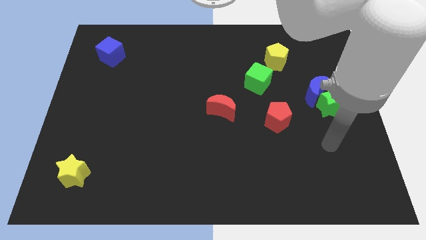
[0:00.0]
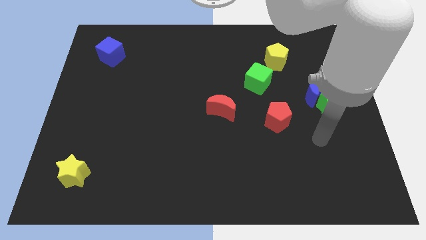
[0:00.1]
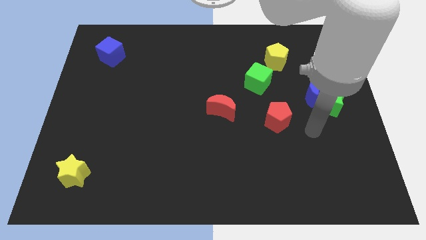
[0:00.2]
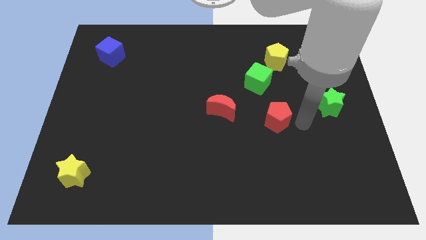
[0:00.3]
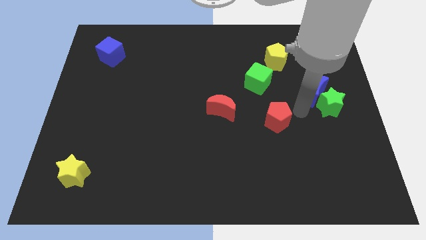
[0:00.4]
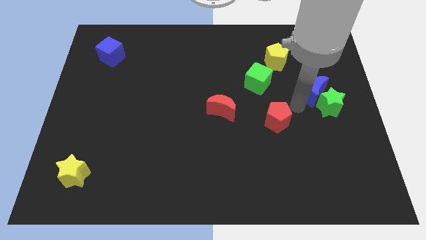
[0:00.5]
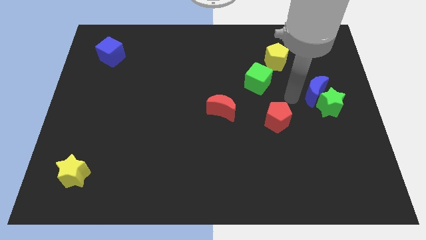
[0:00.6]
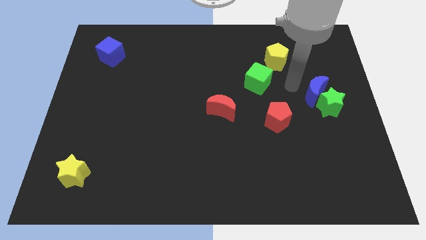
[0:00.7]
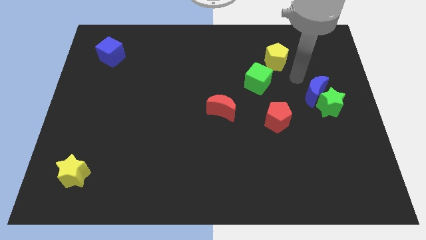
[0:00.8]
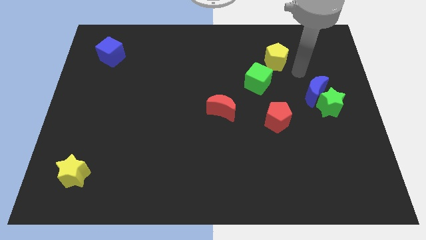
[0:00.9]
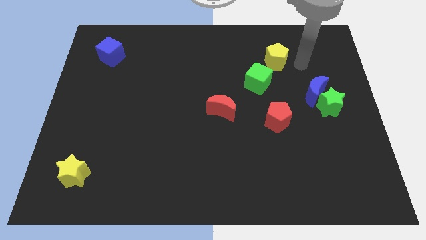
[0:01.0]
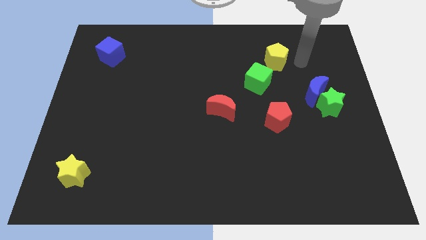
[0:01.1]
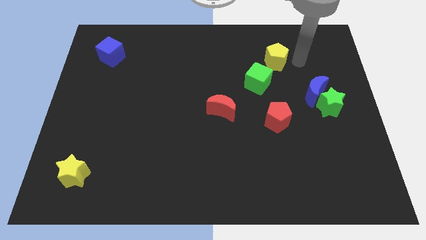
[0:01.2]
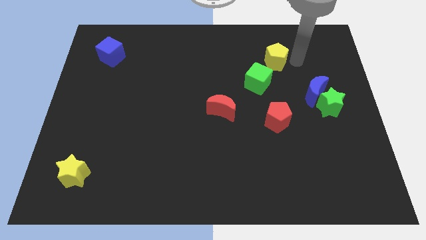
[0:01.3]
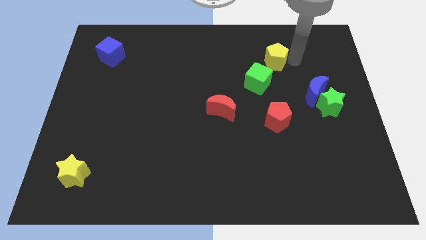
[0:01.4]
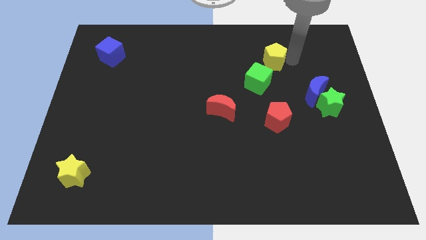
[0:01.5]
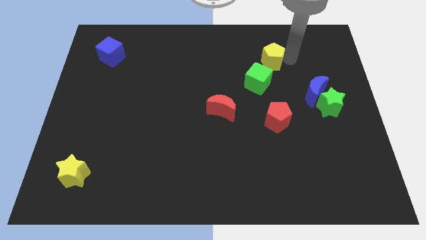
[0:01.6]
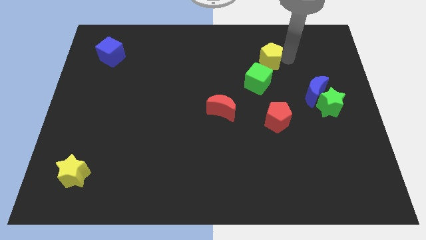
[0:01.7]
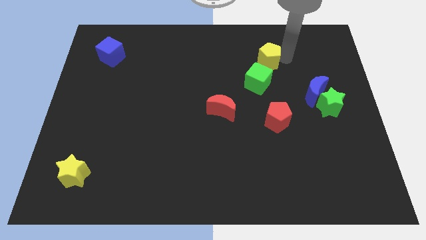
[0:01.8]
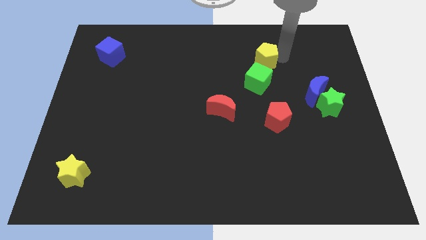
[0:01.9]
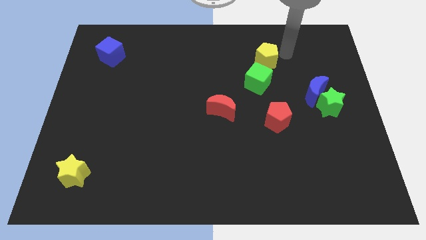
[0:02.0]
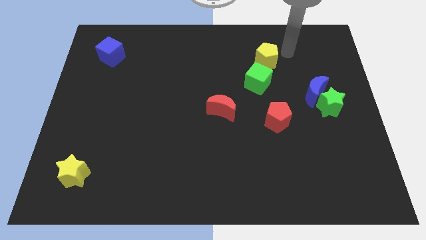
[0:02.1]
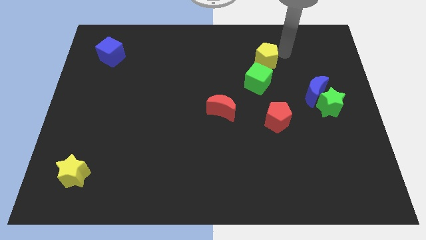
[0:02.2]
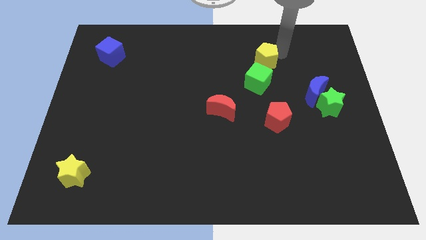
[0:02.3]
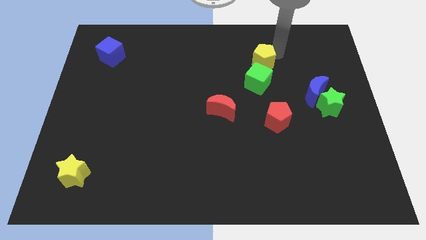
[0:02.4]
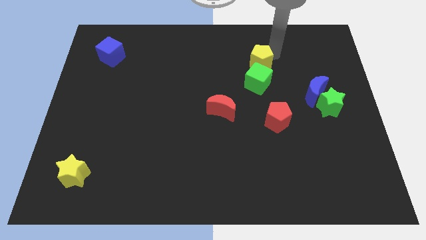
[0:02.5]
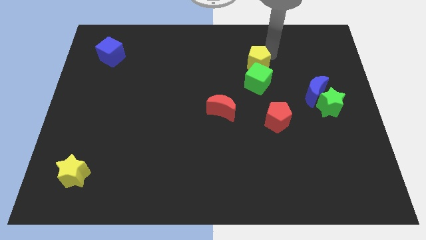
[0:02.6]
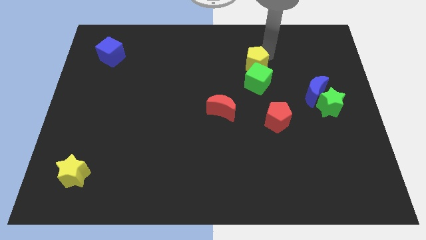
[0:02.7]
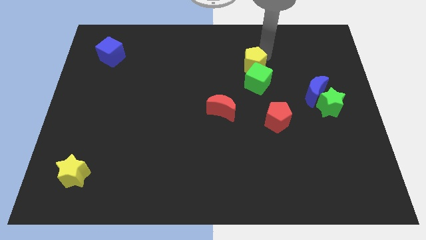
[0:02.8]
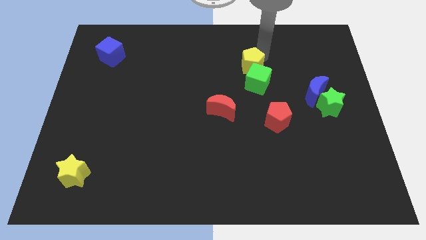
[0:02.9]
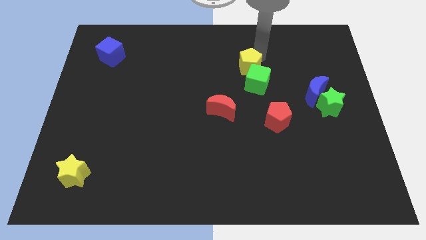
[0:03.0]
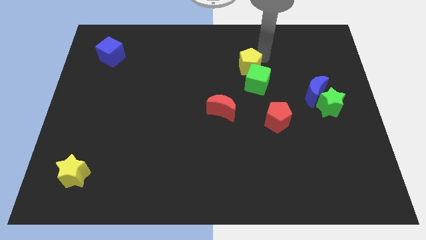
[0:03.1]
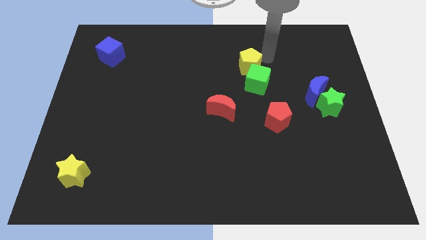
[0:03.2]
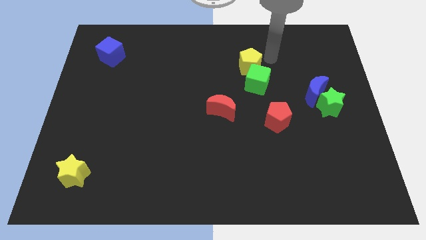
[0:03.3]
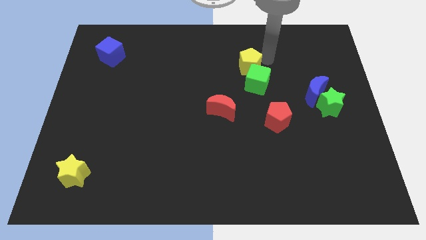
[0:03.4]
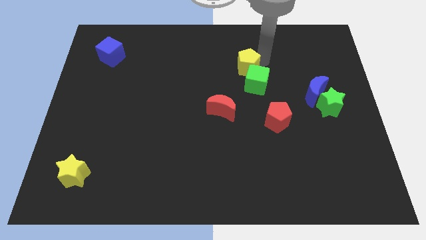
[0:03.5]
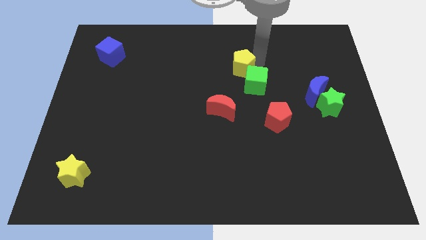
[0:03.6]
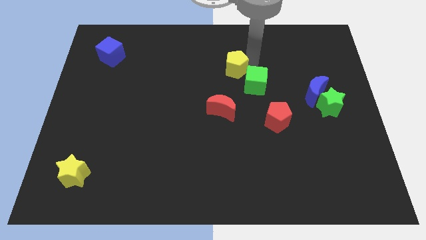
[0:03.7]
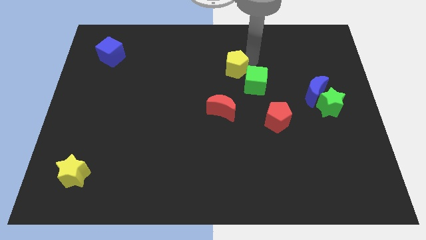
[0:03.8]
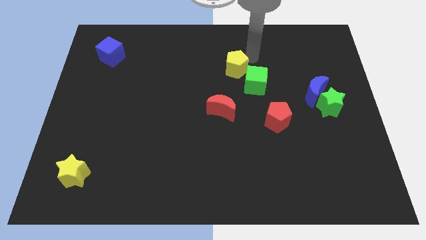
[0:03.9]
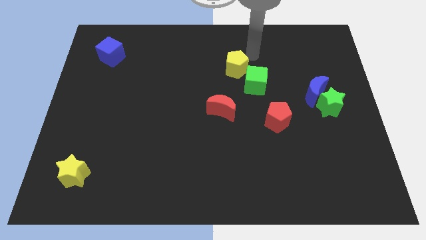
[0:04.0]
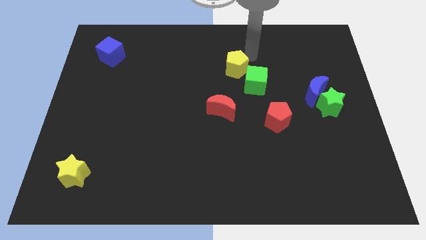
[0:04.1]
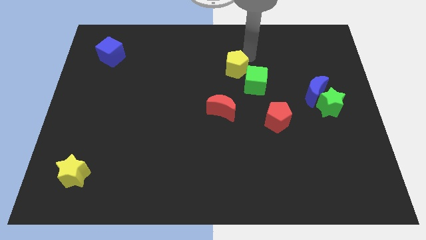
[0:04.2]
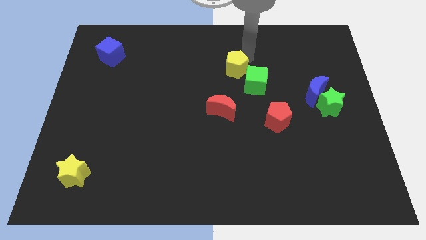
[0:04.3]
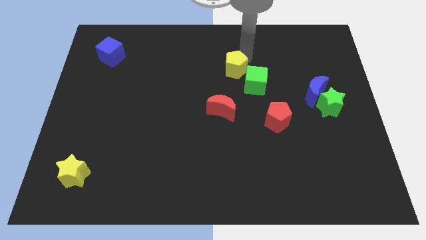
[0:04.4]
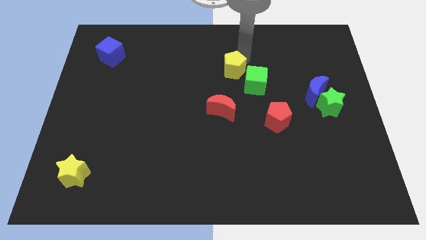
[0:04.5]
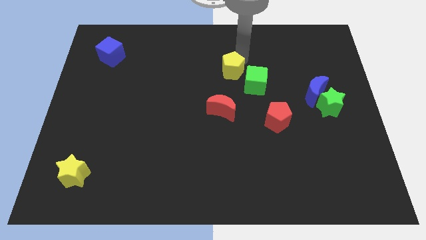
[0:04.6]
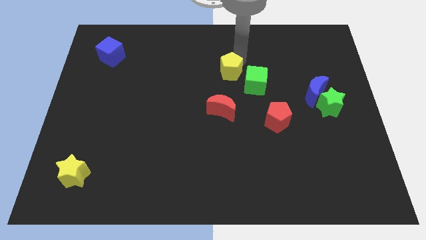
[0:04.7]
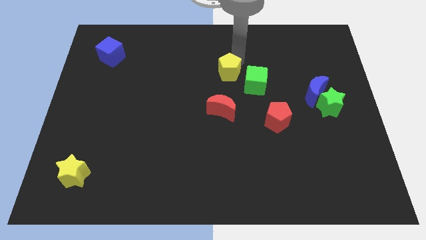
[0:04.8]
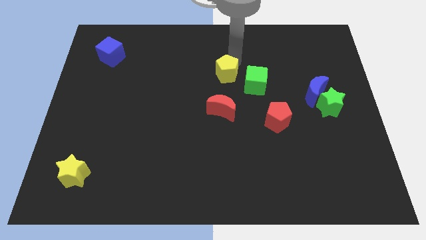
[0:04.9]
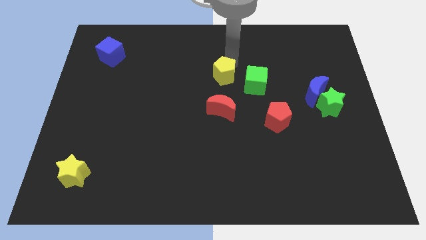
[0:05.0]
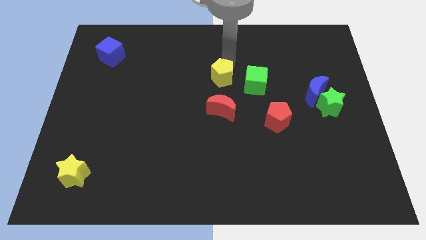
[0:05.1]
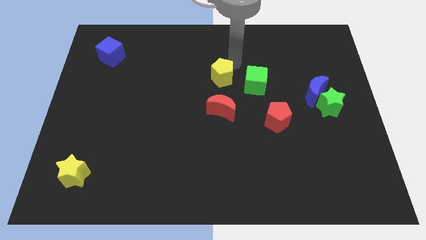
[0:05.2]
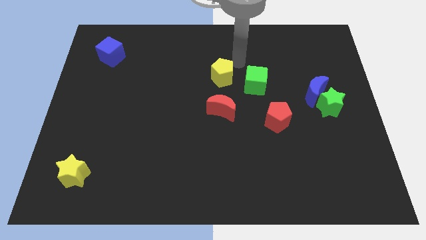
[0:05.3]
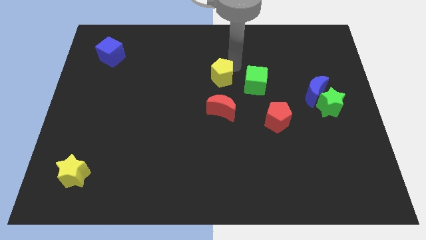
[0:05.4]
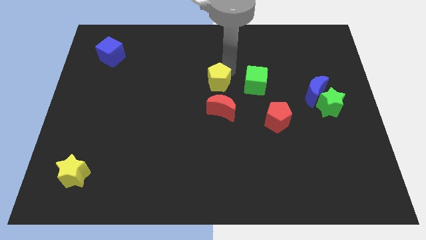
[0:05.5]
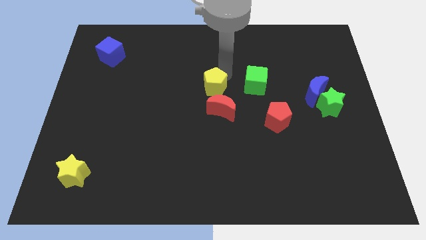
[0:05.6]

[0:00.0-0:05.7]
move the yellow pentagon to the top left side of the red moon

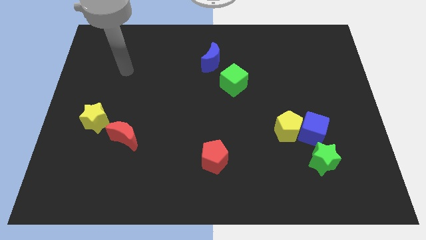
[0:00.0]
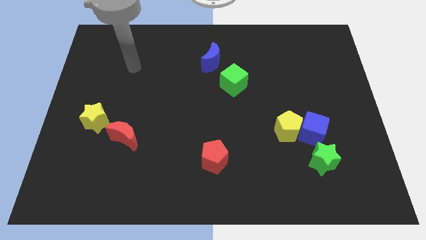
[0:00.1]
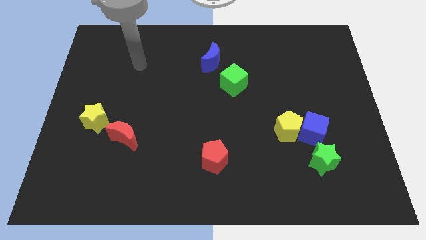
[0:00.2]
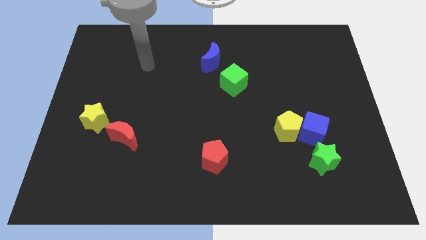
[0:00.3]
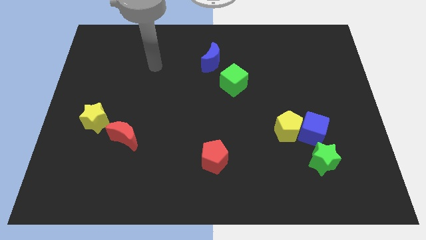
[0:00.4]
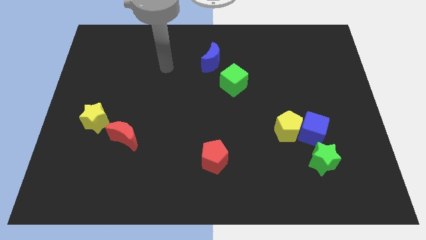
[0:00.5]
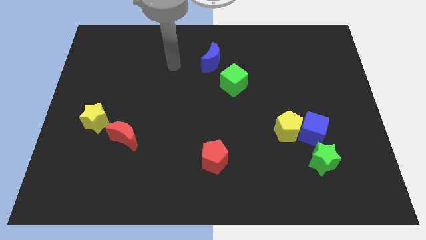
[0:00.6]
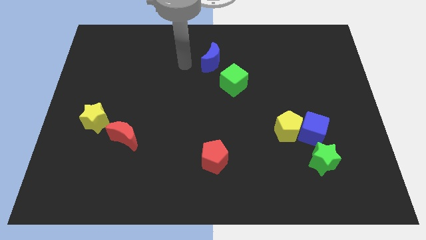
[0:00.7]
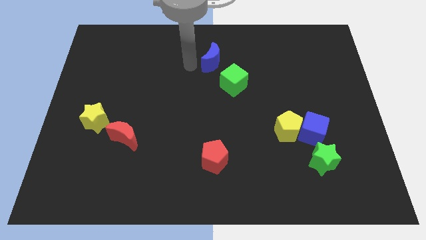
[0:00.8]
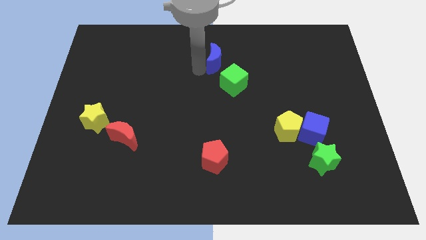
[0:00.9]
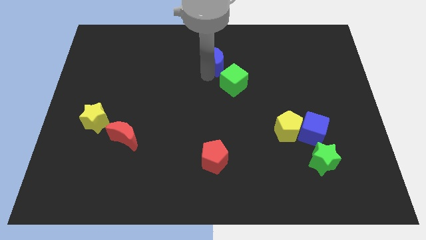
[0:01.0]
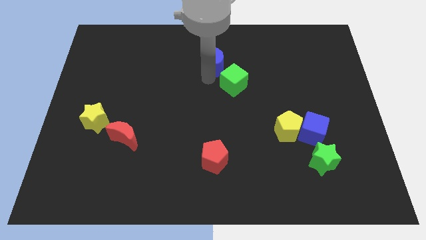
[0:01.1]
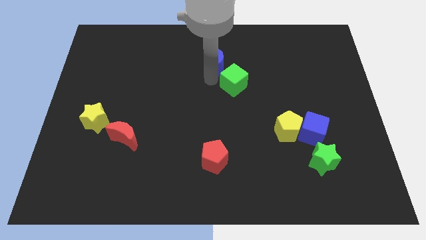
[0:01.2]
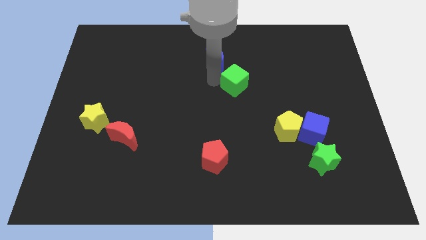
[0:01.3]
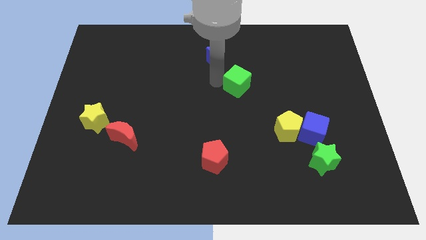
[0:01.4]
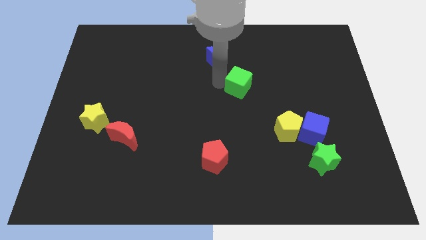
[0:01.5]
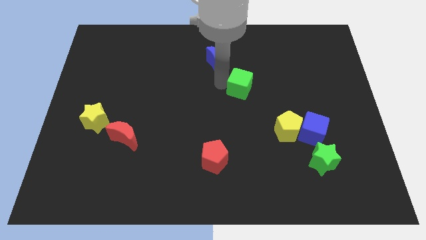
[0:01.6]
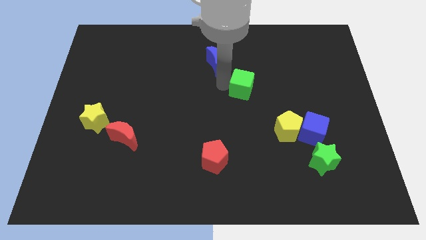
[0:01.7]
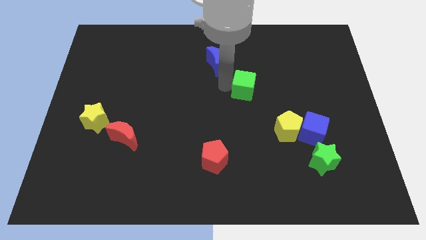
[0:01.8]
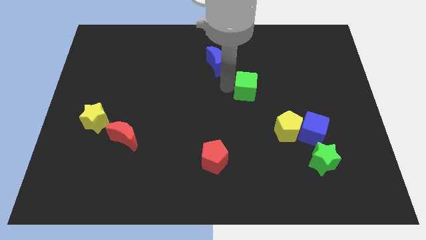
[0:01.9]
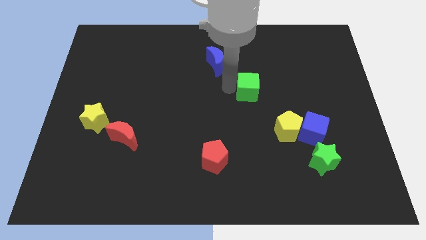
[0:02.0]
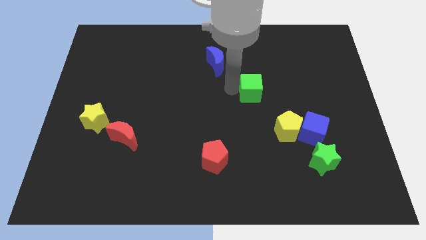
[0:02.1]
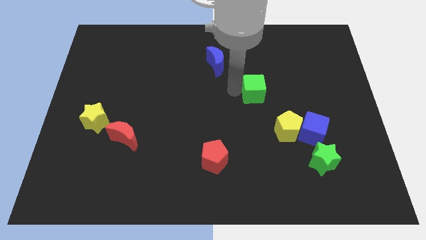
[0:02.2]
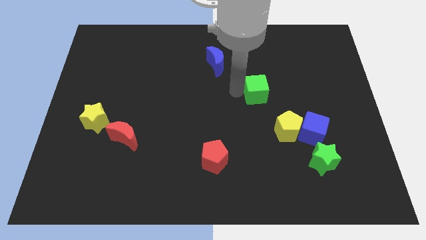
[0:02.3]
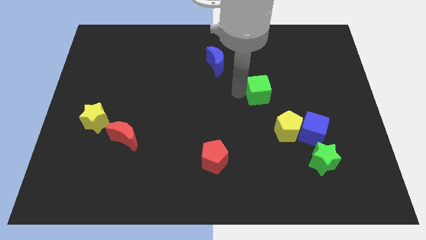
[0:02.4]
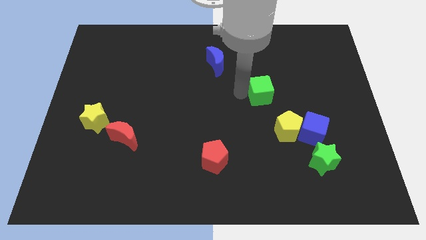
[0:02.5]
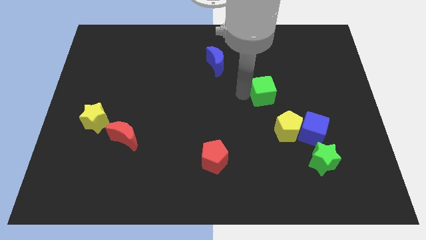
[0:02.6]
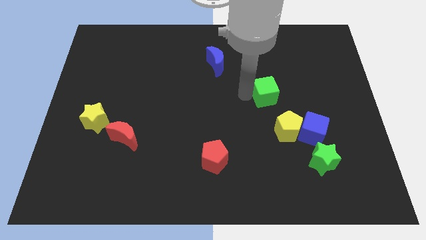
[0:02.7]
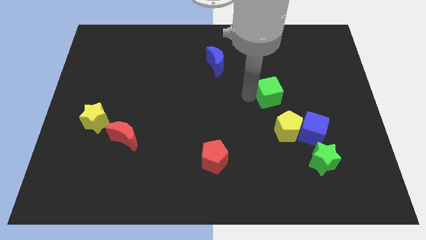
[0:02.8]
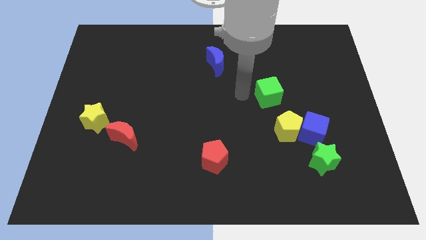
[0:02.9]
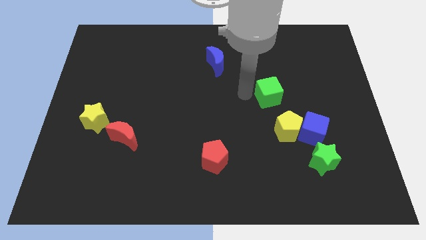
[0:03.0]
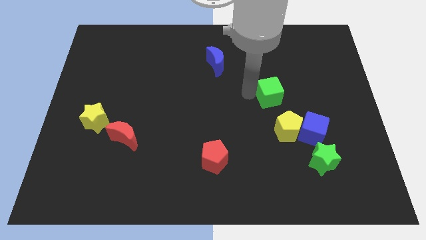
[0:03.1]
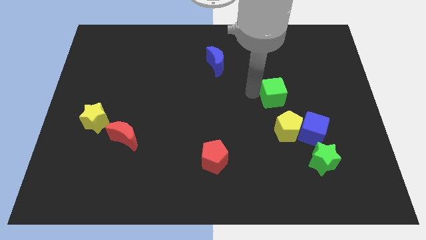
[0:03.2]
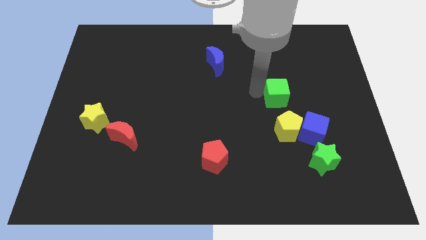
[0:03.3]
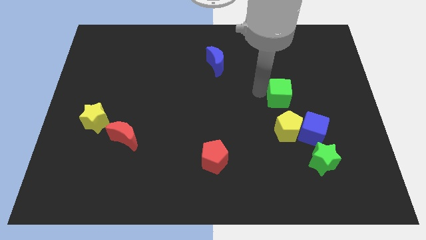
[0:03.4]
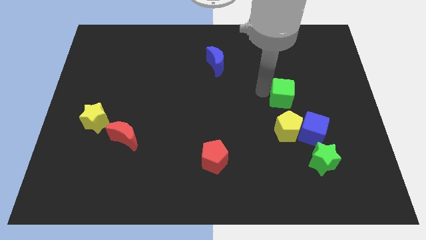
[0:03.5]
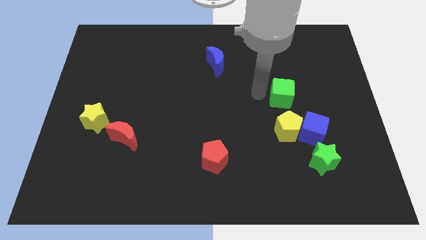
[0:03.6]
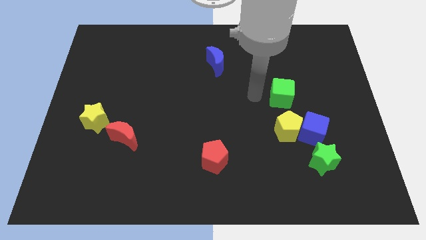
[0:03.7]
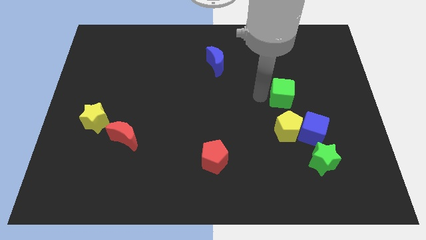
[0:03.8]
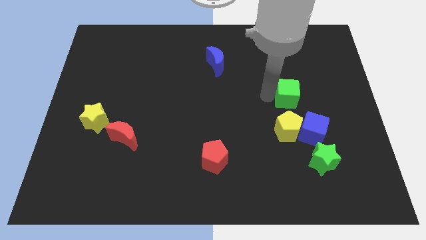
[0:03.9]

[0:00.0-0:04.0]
slide the green cube to the top of the blue cube
